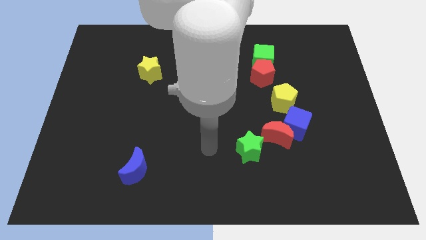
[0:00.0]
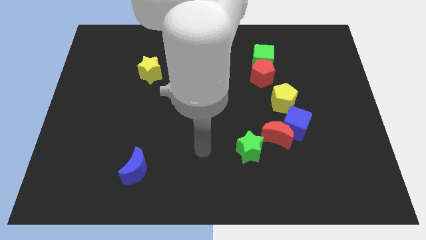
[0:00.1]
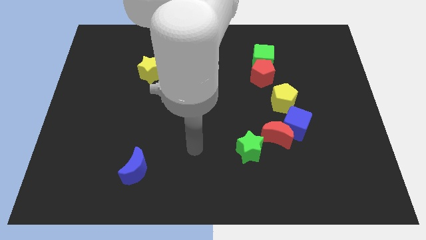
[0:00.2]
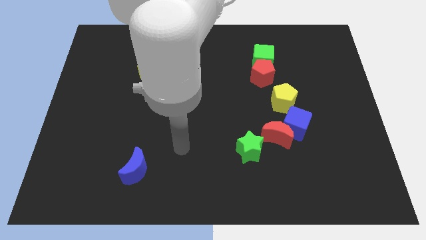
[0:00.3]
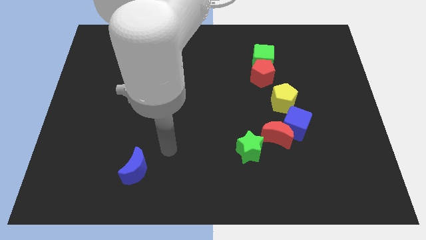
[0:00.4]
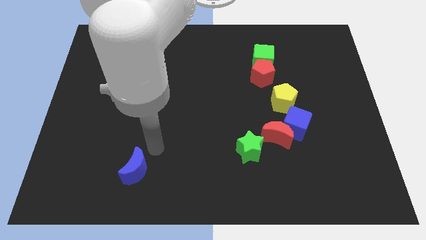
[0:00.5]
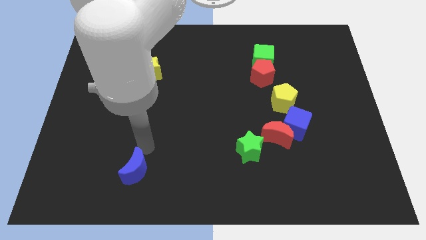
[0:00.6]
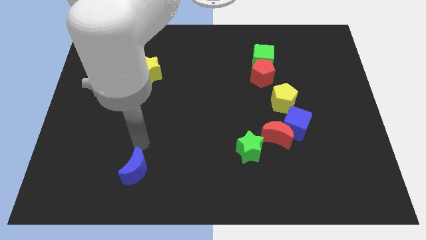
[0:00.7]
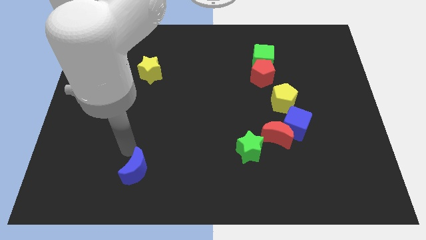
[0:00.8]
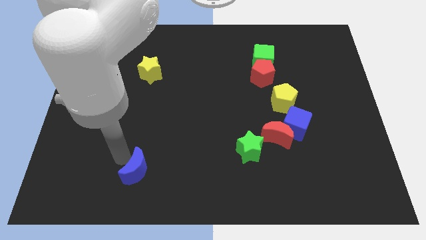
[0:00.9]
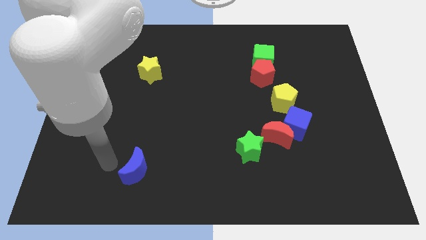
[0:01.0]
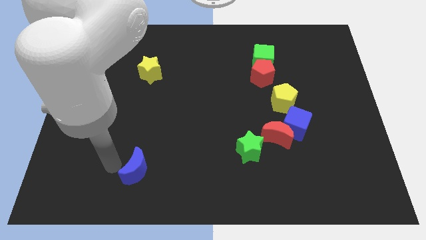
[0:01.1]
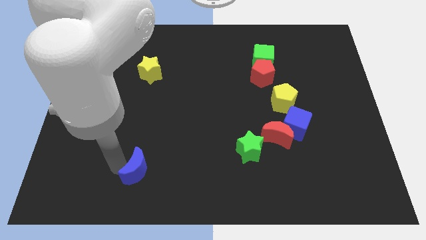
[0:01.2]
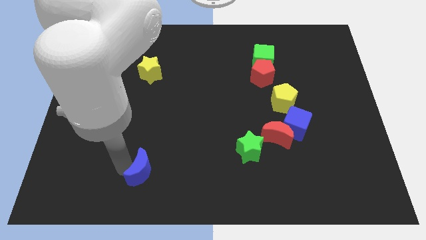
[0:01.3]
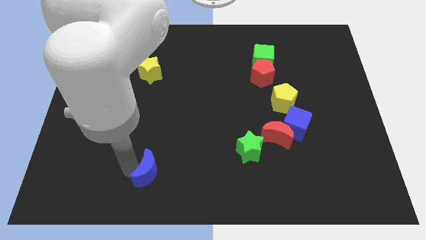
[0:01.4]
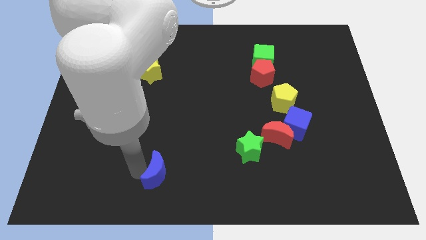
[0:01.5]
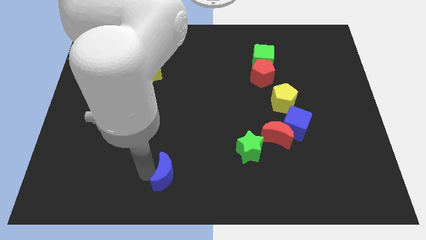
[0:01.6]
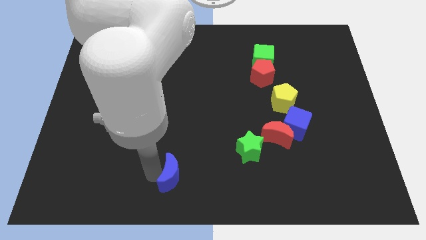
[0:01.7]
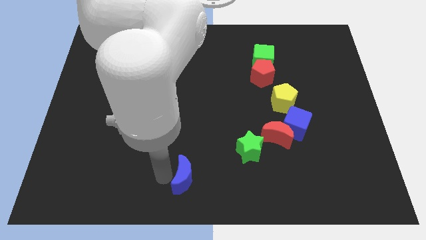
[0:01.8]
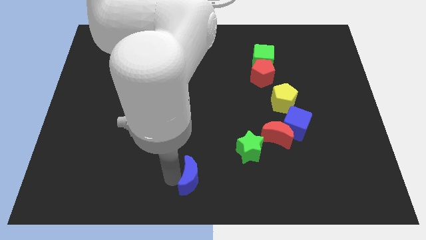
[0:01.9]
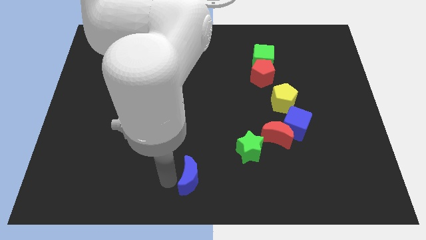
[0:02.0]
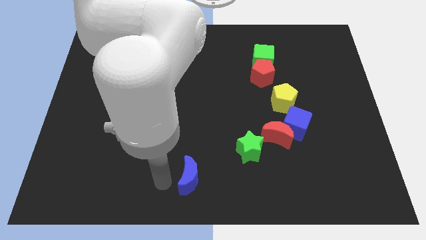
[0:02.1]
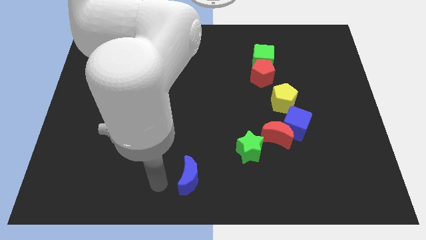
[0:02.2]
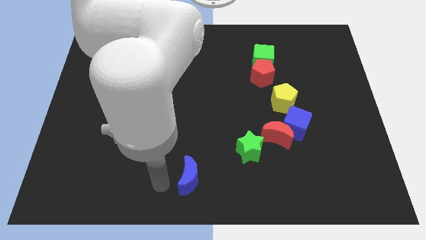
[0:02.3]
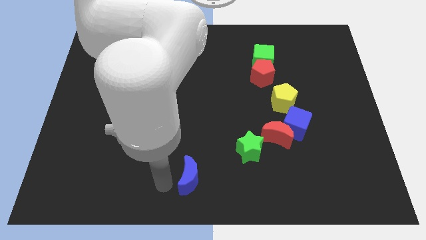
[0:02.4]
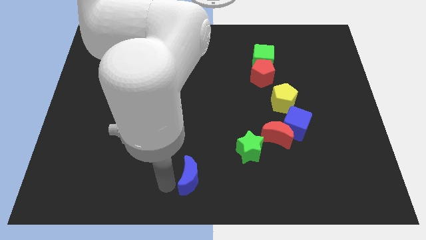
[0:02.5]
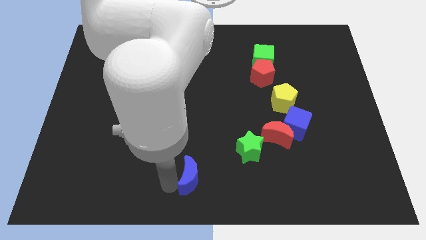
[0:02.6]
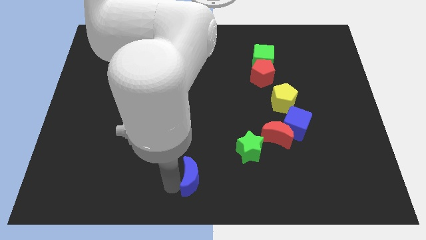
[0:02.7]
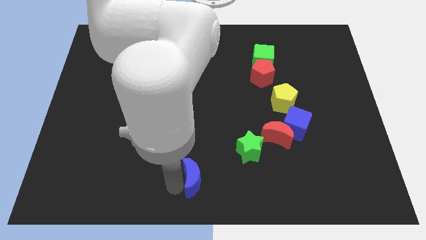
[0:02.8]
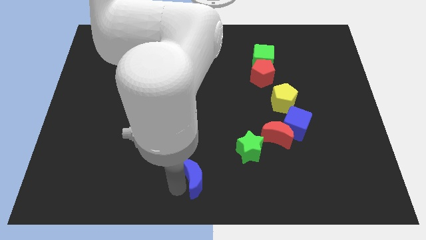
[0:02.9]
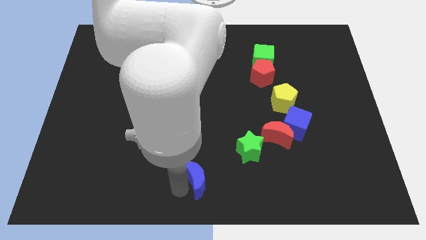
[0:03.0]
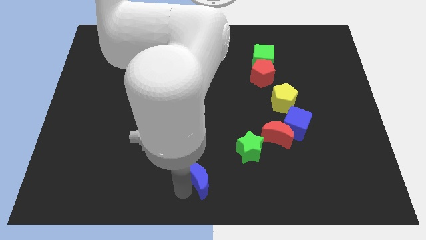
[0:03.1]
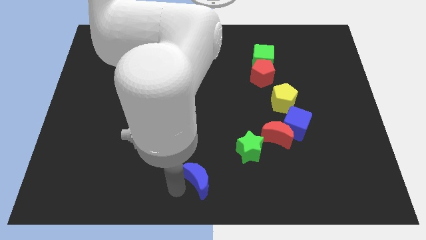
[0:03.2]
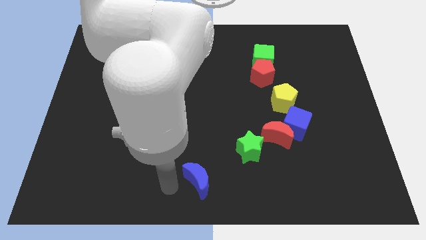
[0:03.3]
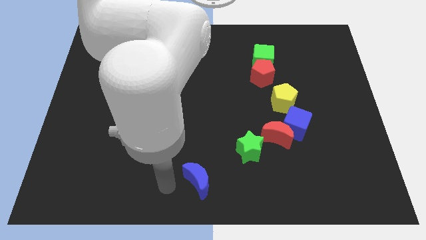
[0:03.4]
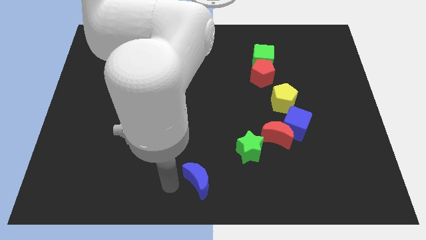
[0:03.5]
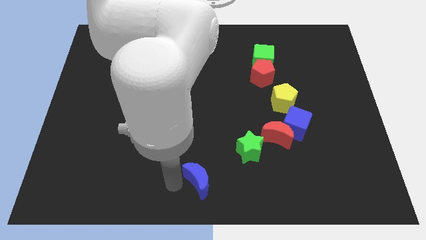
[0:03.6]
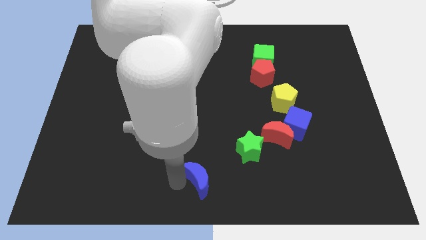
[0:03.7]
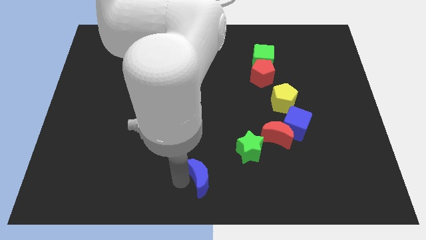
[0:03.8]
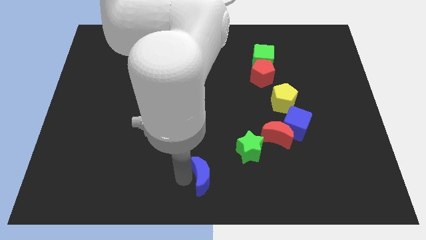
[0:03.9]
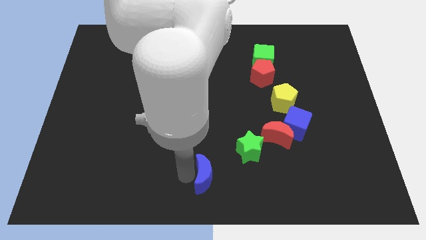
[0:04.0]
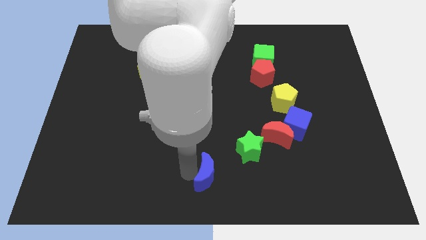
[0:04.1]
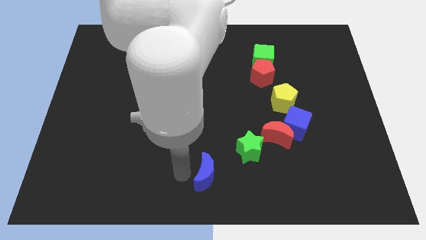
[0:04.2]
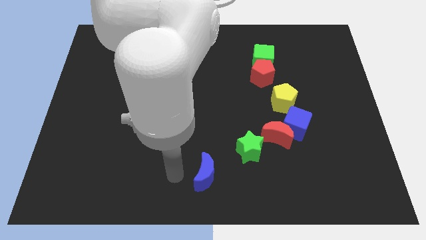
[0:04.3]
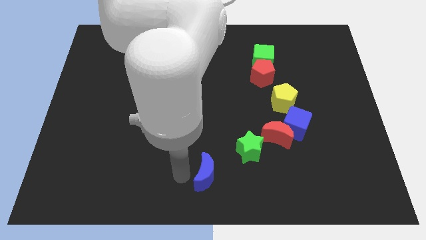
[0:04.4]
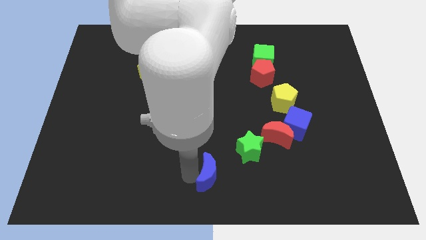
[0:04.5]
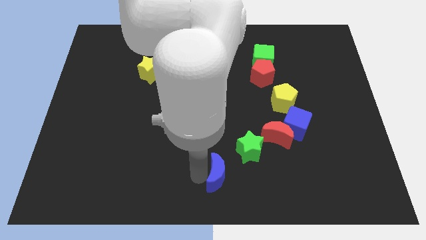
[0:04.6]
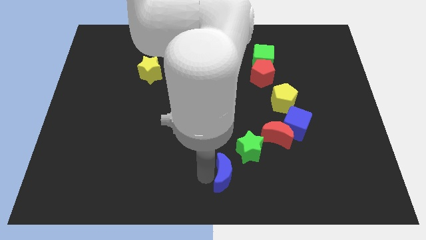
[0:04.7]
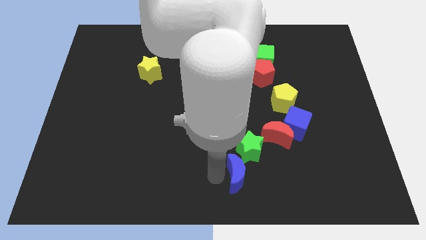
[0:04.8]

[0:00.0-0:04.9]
move the blue moon to the right

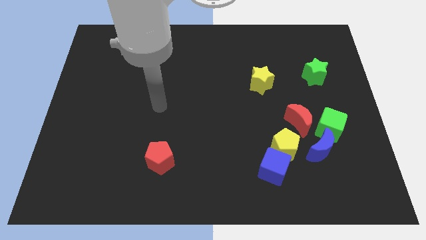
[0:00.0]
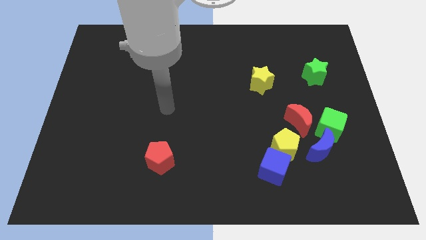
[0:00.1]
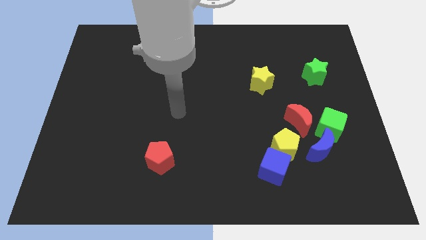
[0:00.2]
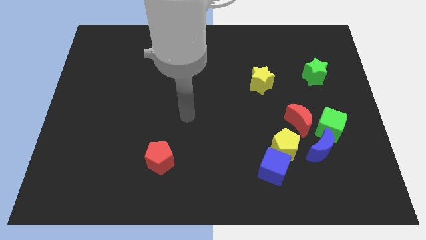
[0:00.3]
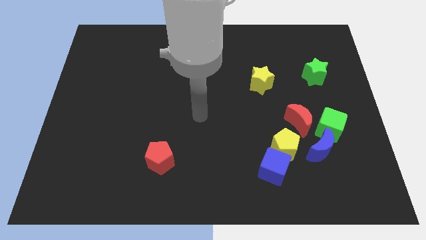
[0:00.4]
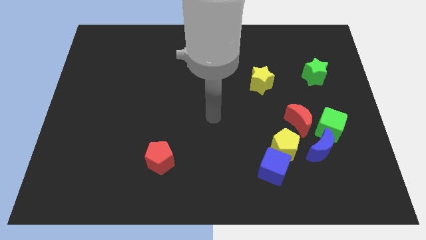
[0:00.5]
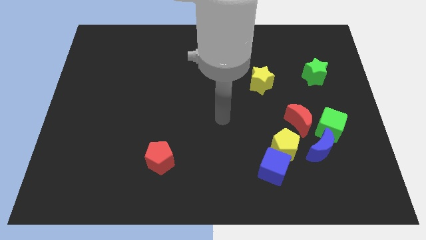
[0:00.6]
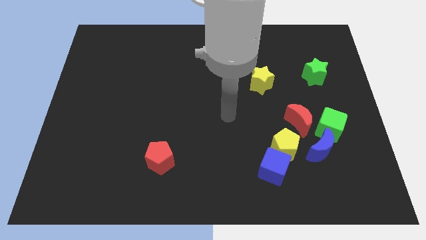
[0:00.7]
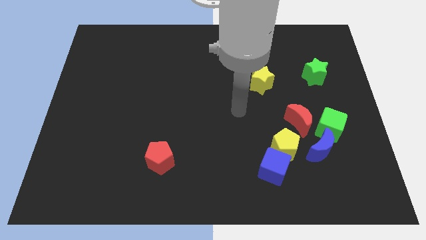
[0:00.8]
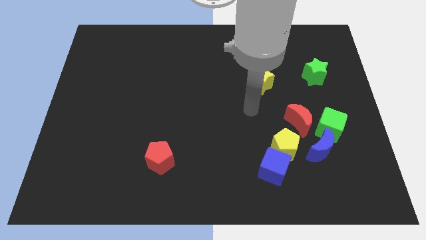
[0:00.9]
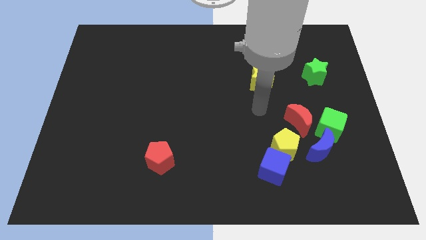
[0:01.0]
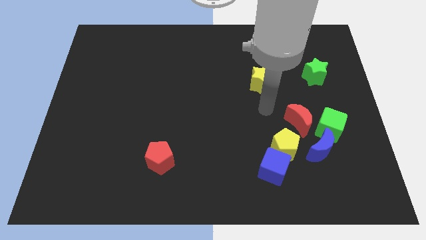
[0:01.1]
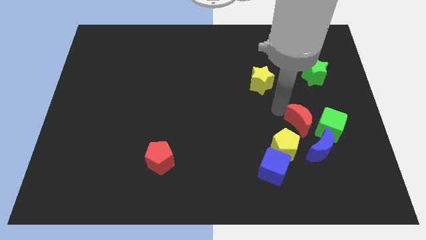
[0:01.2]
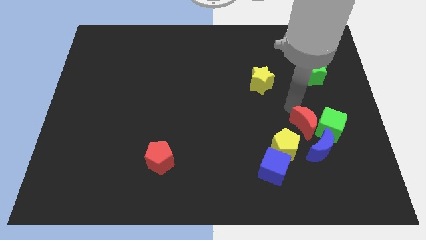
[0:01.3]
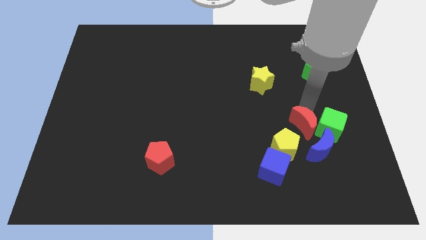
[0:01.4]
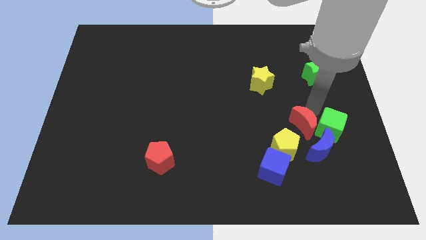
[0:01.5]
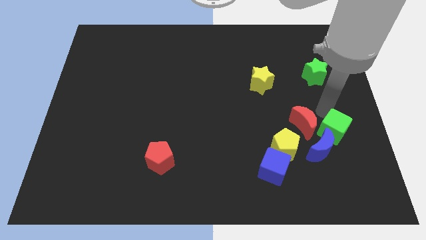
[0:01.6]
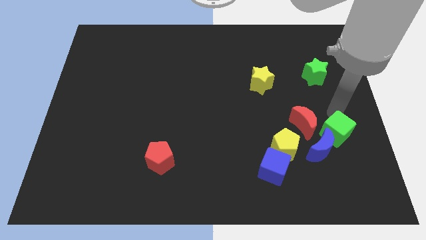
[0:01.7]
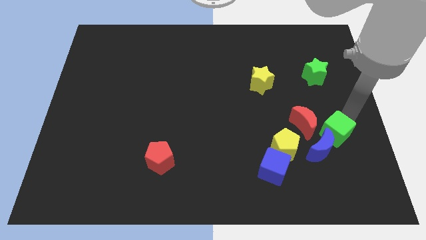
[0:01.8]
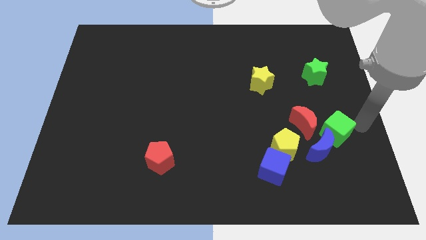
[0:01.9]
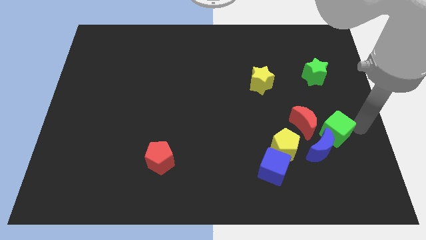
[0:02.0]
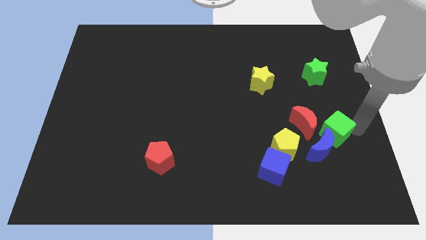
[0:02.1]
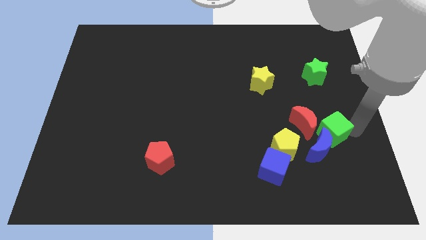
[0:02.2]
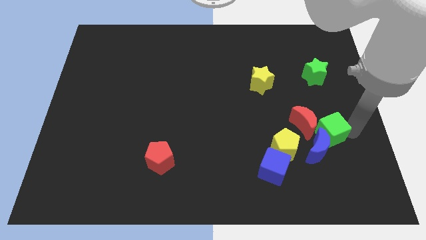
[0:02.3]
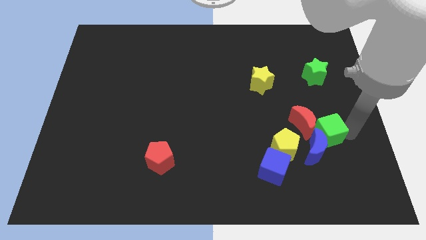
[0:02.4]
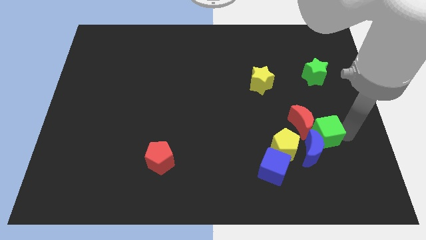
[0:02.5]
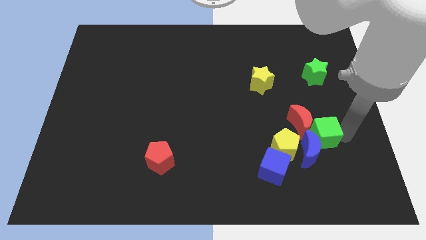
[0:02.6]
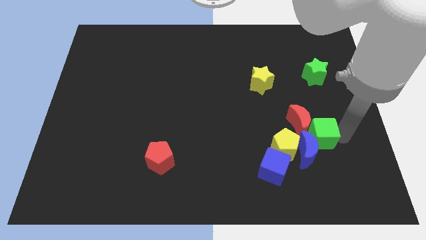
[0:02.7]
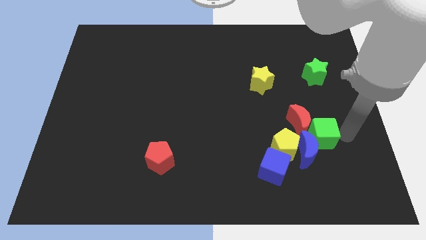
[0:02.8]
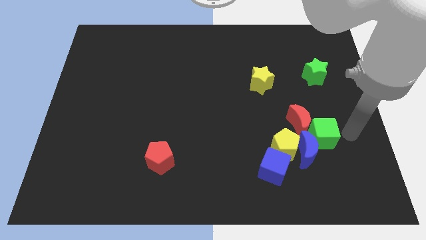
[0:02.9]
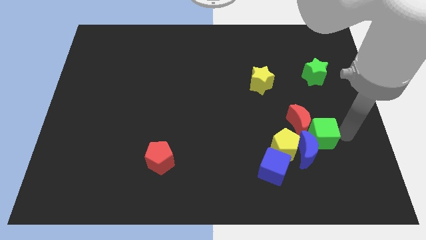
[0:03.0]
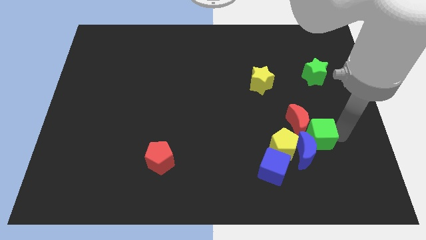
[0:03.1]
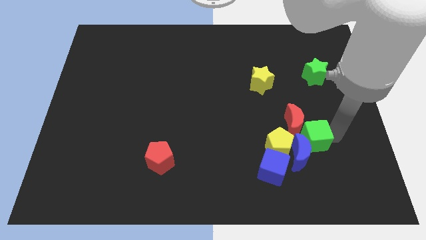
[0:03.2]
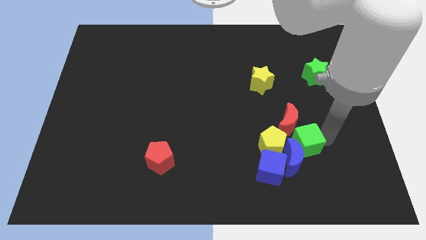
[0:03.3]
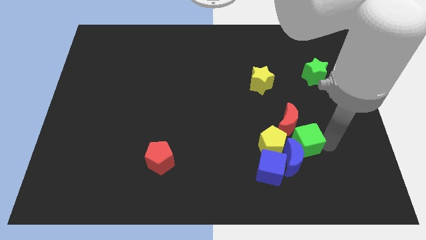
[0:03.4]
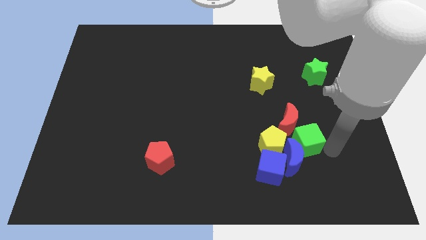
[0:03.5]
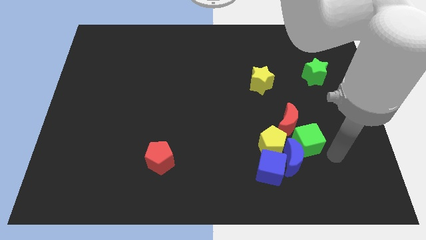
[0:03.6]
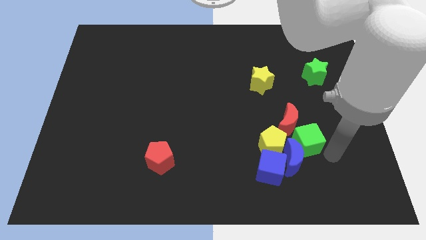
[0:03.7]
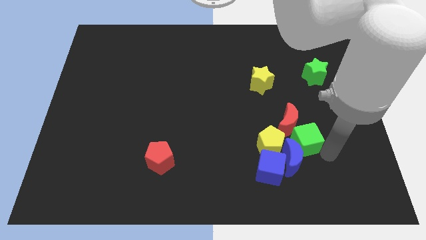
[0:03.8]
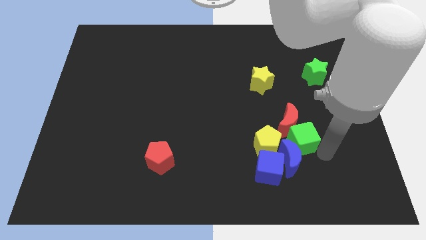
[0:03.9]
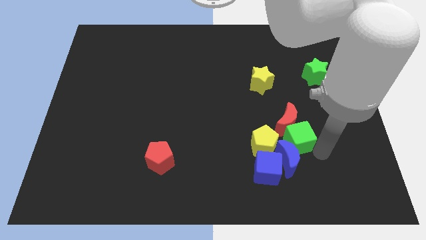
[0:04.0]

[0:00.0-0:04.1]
slightly push the green cube left
